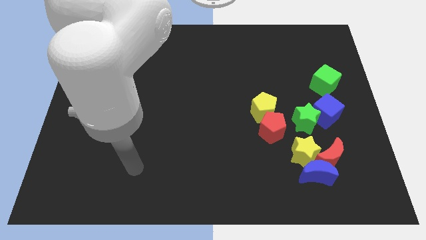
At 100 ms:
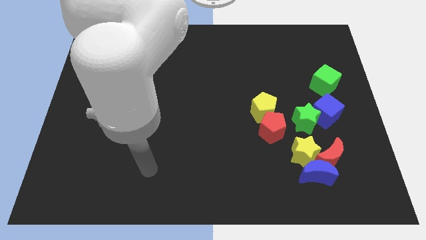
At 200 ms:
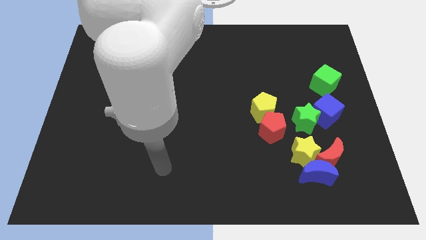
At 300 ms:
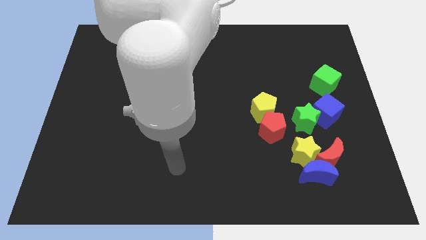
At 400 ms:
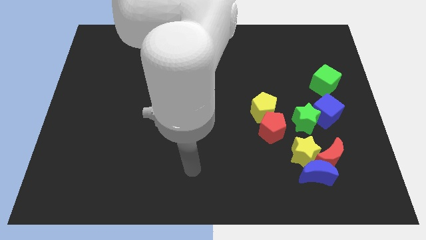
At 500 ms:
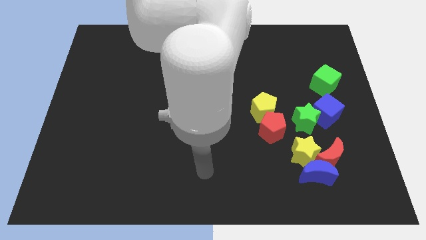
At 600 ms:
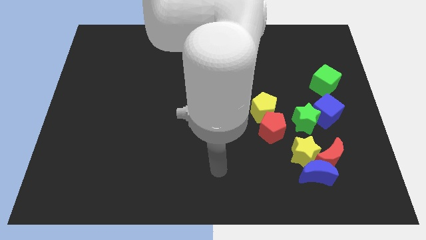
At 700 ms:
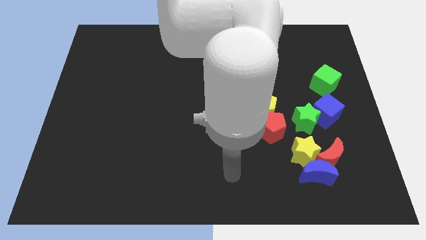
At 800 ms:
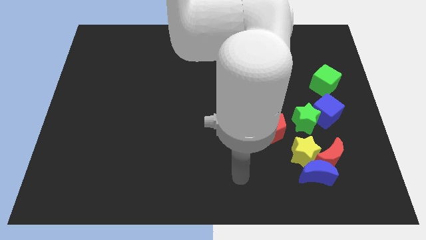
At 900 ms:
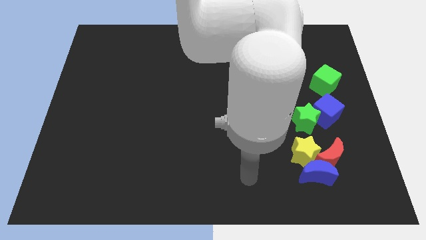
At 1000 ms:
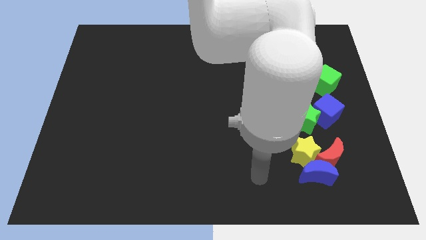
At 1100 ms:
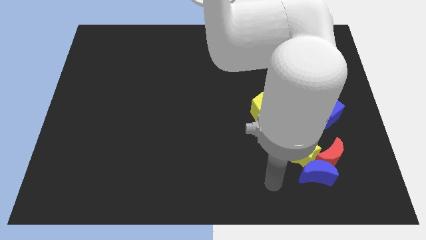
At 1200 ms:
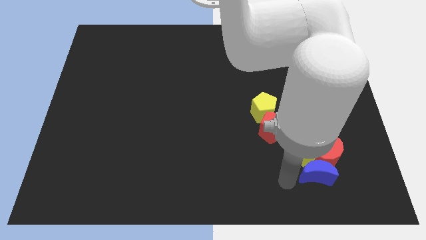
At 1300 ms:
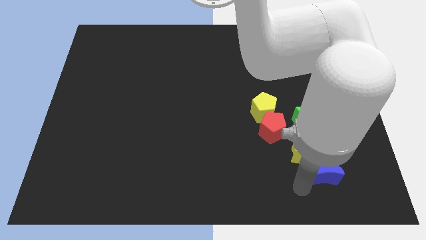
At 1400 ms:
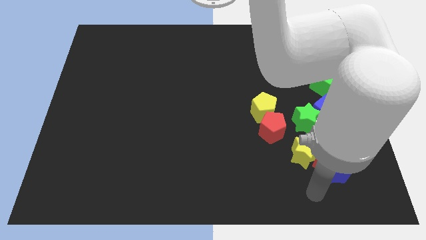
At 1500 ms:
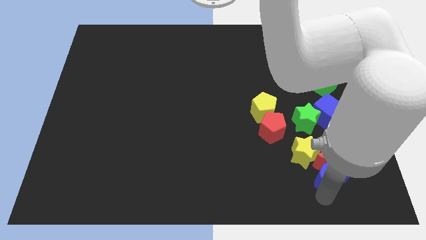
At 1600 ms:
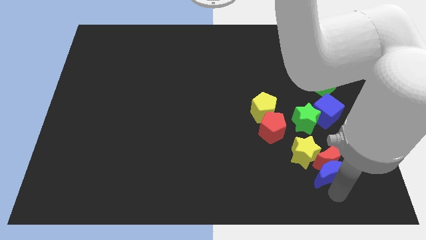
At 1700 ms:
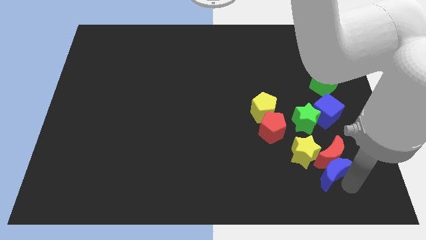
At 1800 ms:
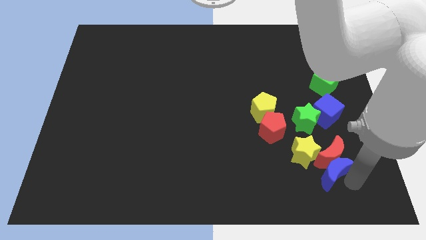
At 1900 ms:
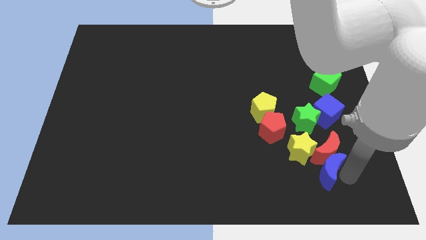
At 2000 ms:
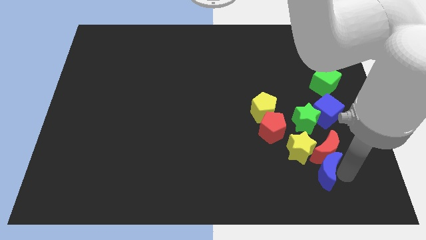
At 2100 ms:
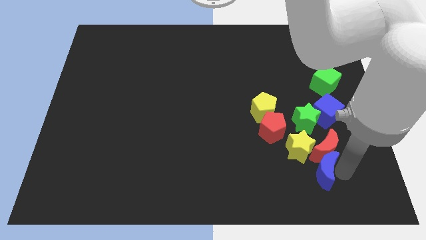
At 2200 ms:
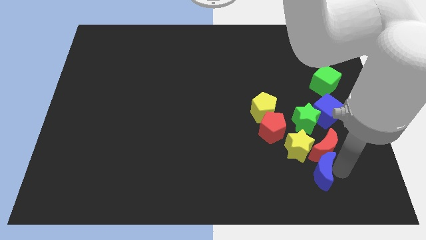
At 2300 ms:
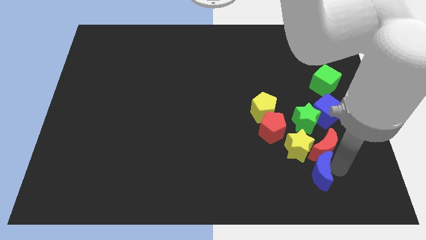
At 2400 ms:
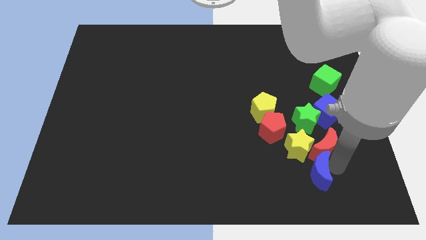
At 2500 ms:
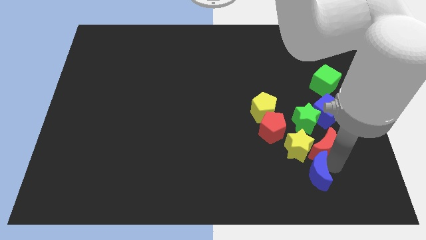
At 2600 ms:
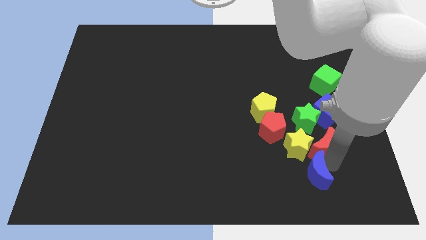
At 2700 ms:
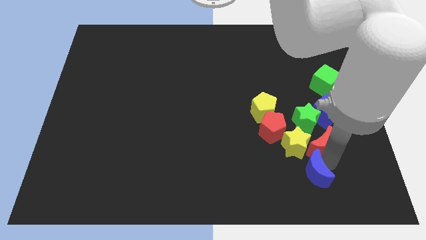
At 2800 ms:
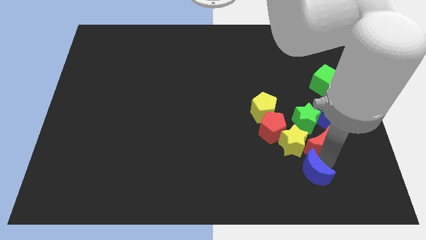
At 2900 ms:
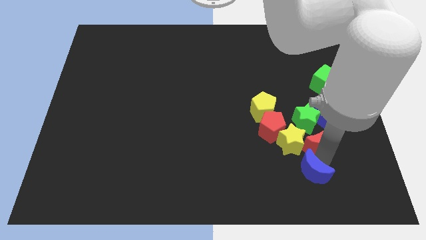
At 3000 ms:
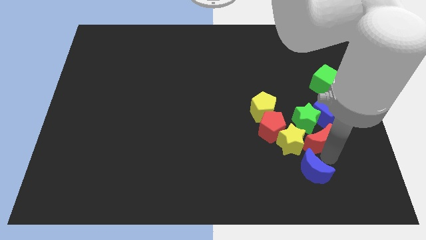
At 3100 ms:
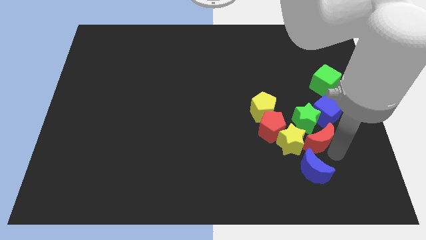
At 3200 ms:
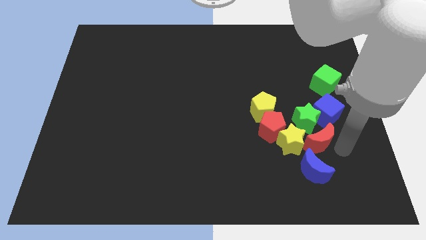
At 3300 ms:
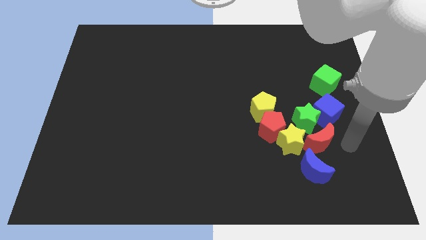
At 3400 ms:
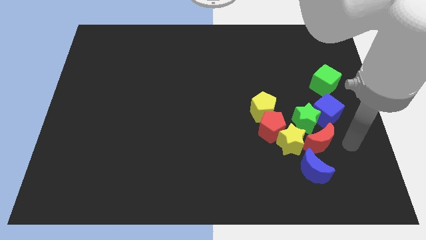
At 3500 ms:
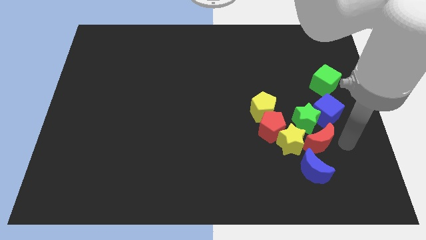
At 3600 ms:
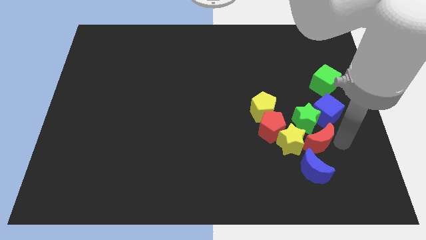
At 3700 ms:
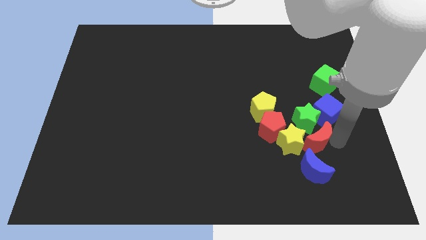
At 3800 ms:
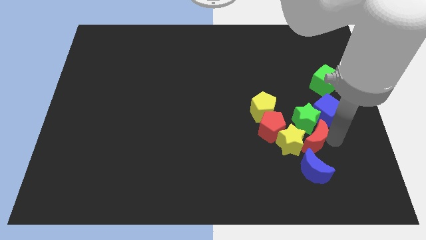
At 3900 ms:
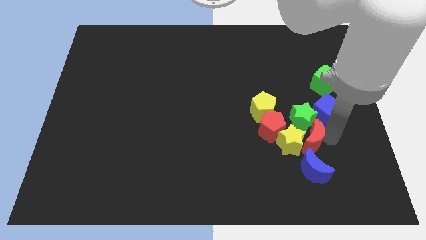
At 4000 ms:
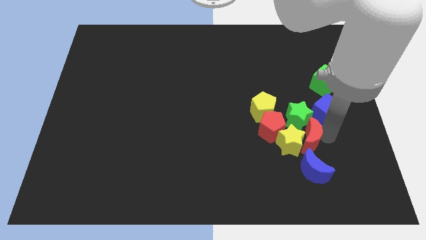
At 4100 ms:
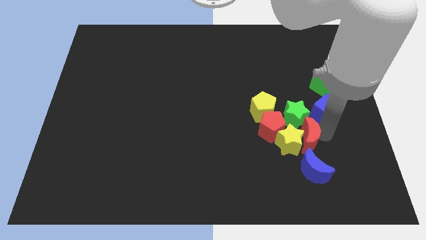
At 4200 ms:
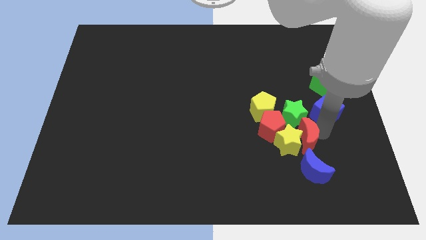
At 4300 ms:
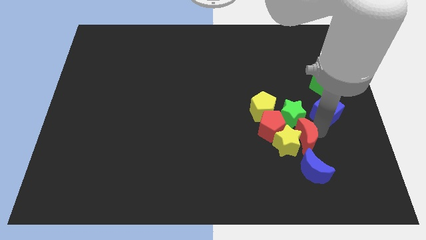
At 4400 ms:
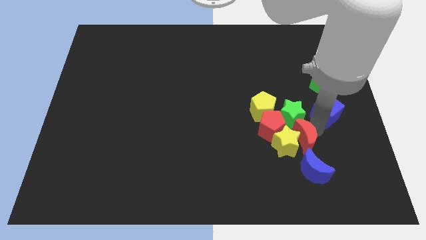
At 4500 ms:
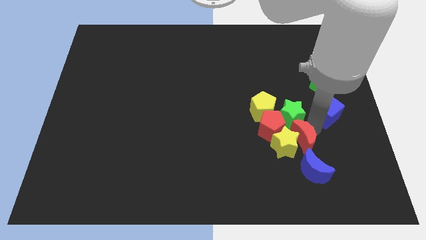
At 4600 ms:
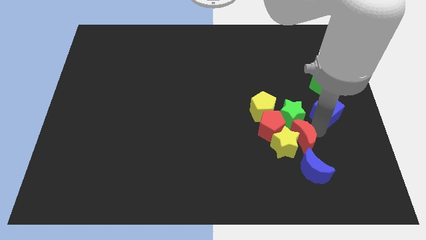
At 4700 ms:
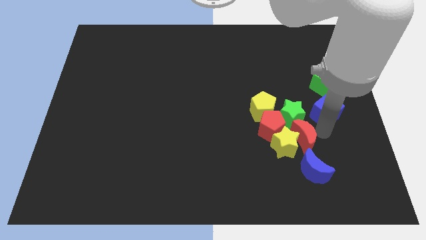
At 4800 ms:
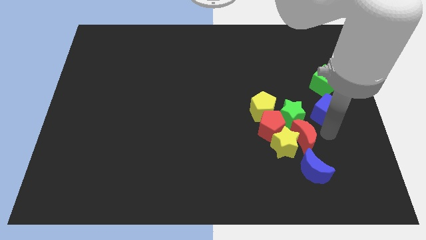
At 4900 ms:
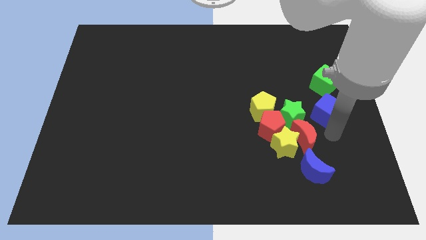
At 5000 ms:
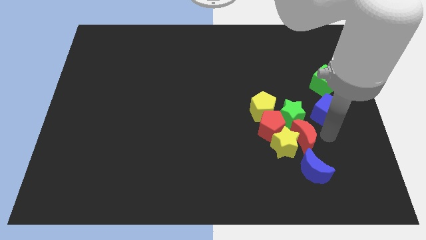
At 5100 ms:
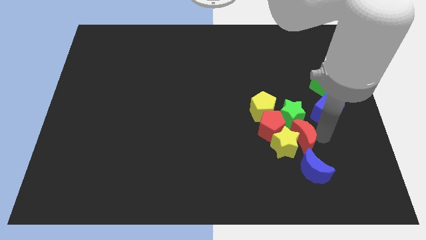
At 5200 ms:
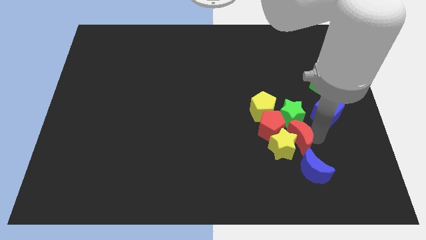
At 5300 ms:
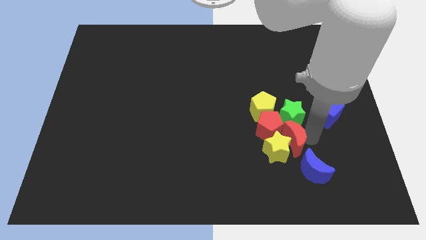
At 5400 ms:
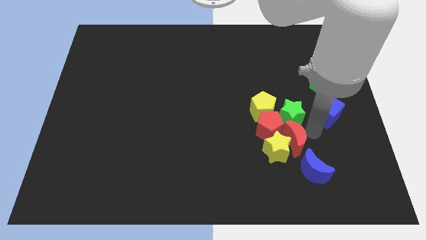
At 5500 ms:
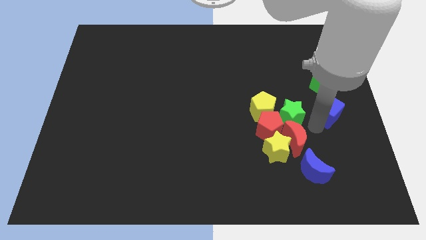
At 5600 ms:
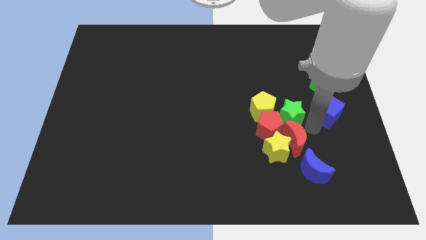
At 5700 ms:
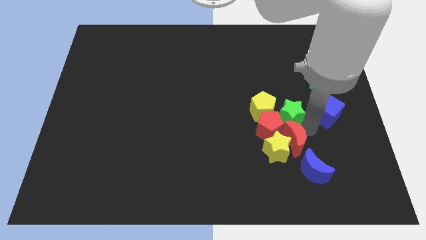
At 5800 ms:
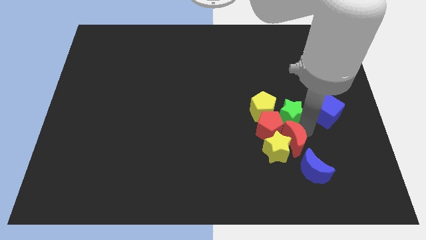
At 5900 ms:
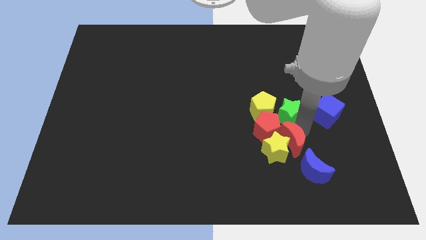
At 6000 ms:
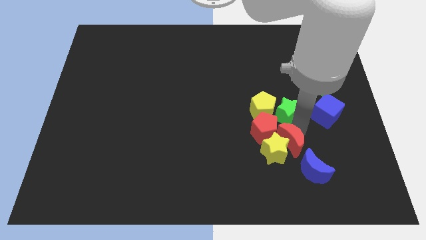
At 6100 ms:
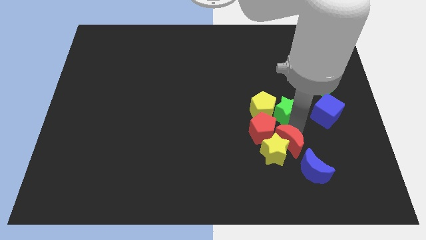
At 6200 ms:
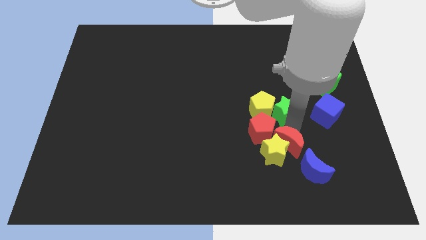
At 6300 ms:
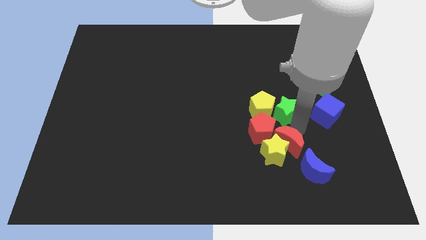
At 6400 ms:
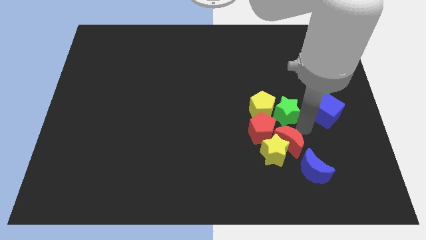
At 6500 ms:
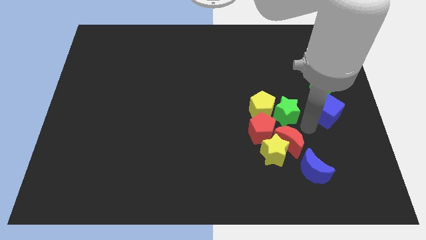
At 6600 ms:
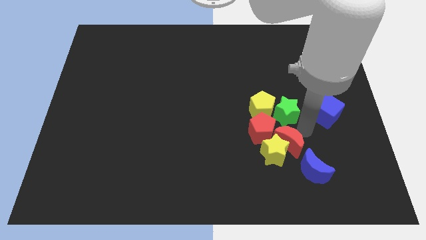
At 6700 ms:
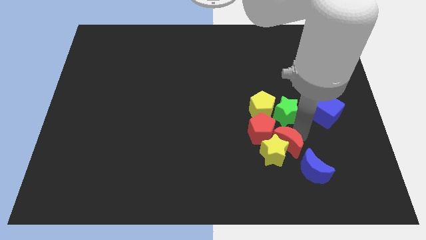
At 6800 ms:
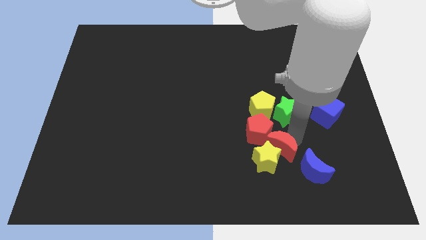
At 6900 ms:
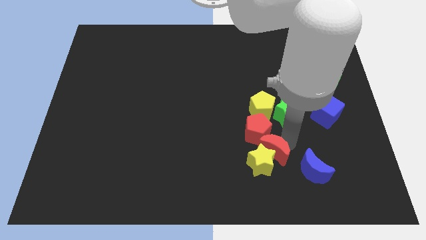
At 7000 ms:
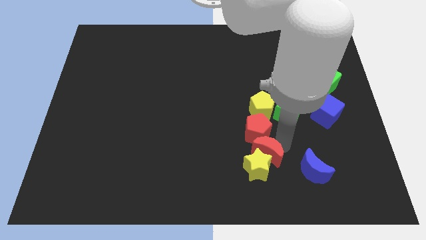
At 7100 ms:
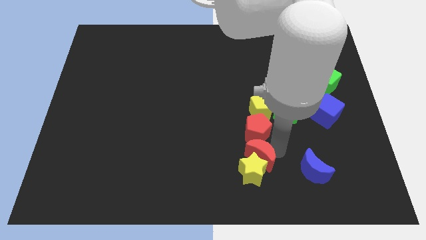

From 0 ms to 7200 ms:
push the red moon diagonally down and to the left of the red pentagon
